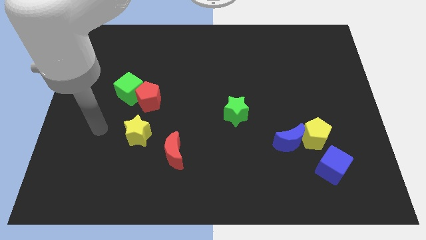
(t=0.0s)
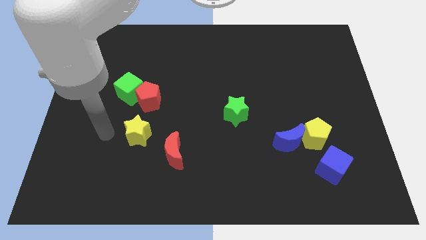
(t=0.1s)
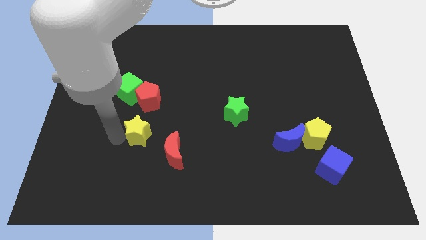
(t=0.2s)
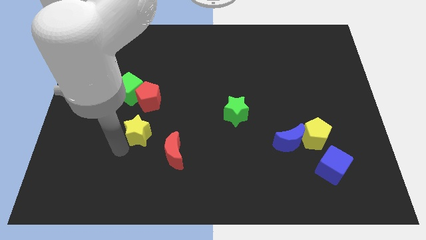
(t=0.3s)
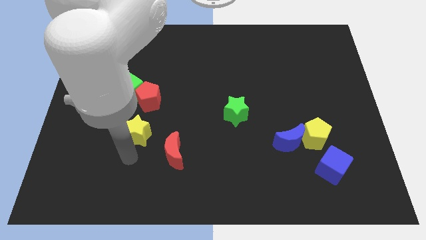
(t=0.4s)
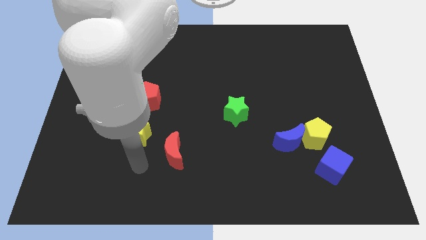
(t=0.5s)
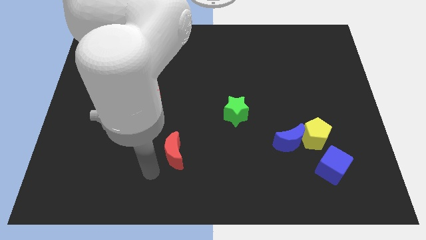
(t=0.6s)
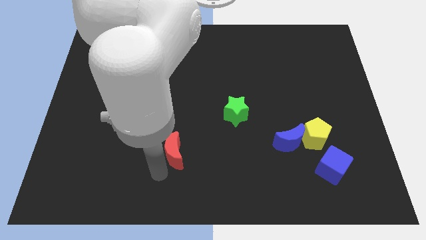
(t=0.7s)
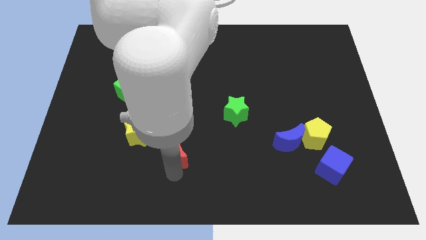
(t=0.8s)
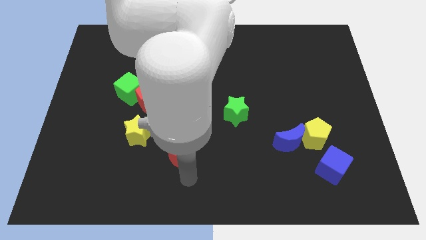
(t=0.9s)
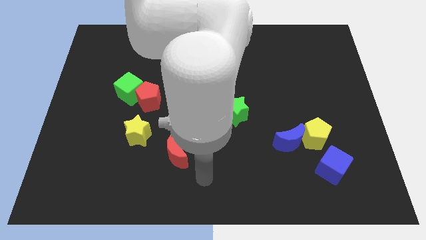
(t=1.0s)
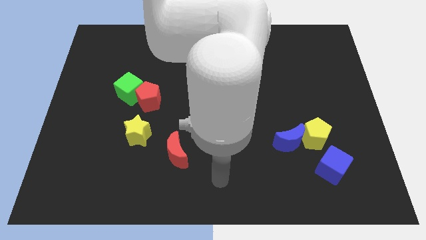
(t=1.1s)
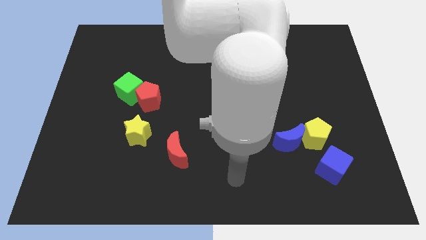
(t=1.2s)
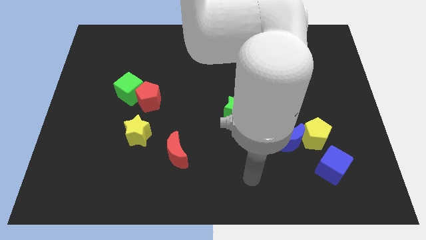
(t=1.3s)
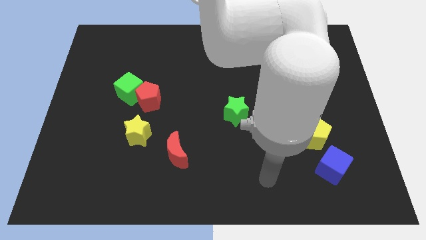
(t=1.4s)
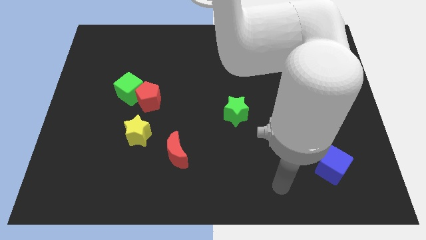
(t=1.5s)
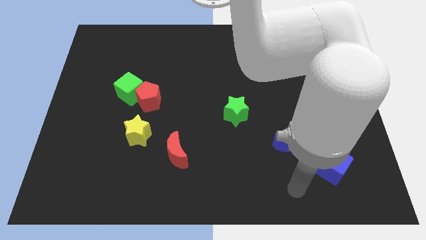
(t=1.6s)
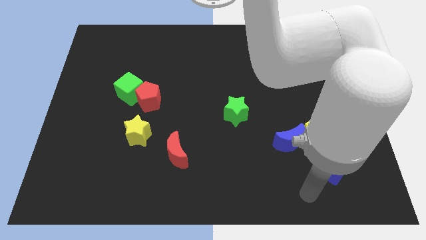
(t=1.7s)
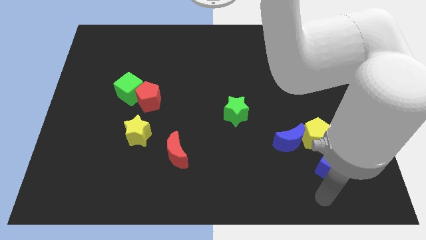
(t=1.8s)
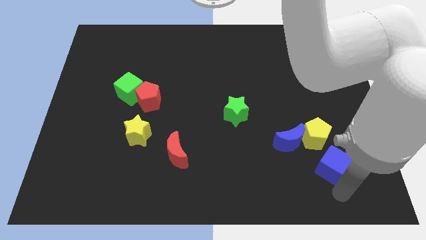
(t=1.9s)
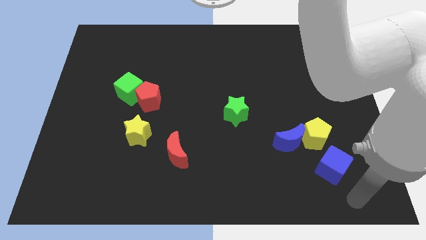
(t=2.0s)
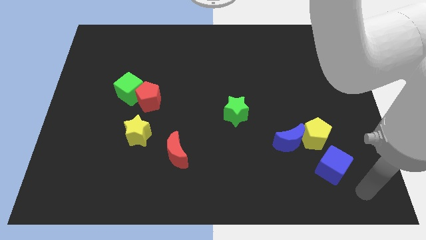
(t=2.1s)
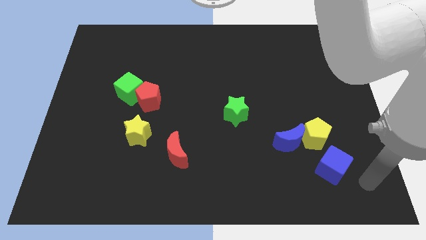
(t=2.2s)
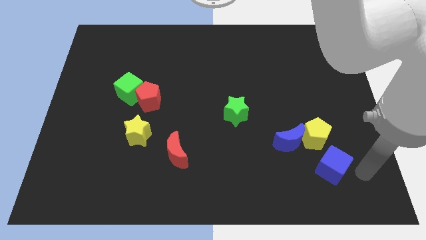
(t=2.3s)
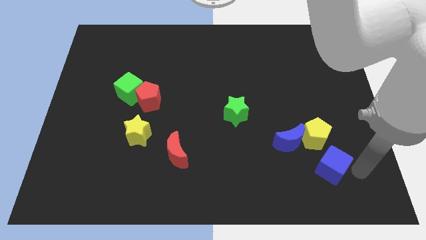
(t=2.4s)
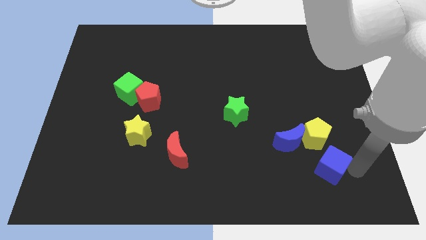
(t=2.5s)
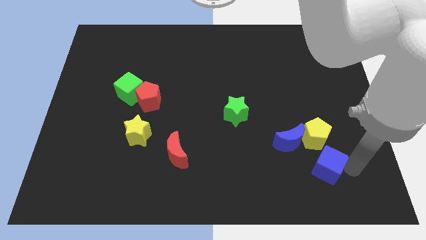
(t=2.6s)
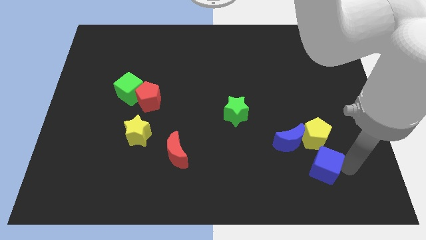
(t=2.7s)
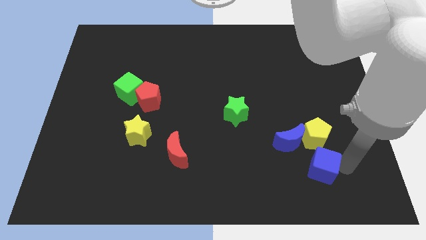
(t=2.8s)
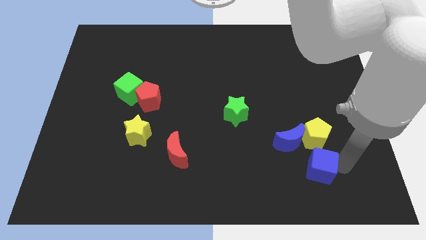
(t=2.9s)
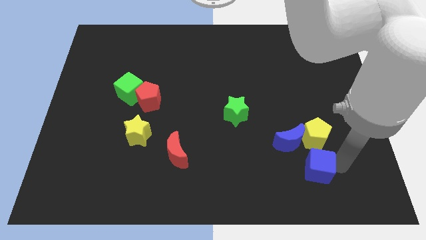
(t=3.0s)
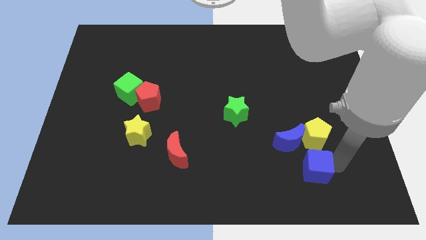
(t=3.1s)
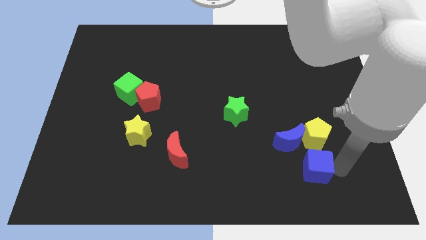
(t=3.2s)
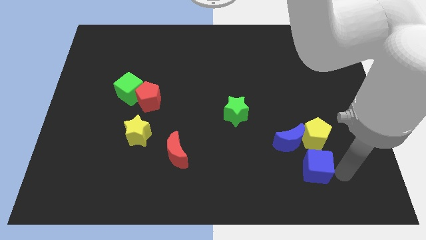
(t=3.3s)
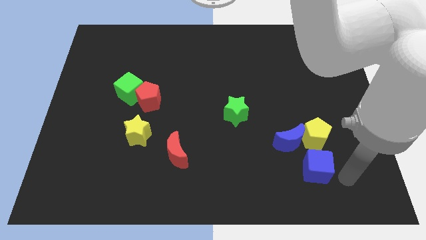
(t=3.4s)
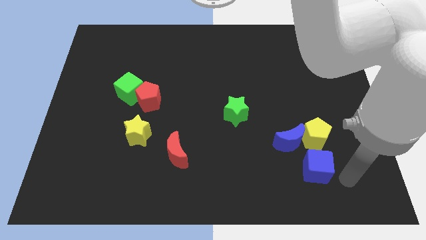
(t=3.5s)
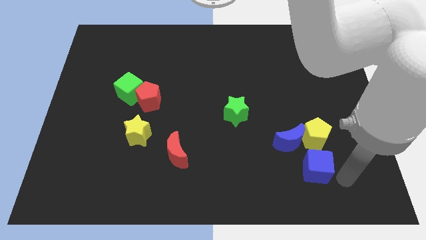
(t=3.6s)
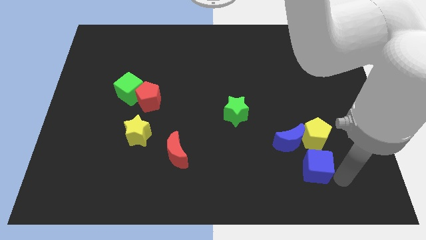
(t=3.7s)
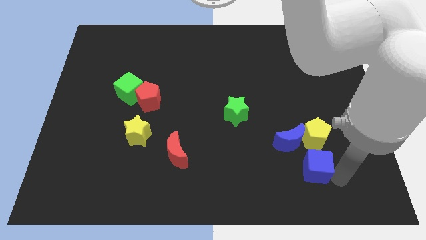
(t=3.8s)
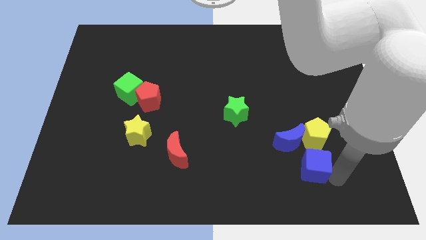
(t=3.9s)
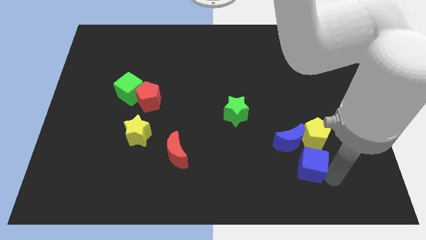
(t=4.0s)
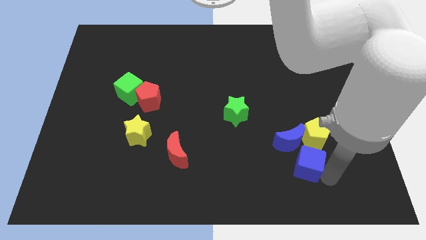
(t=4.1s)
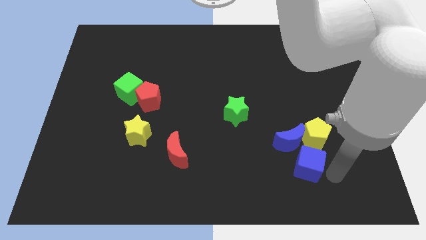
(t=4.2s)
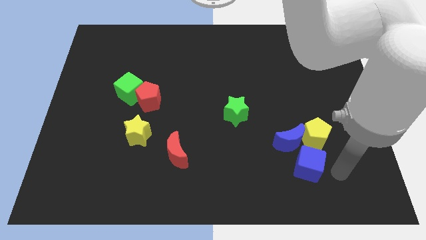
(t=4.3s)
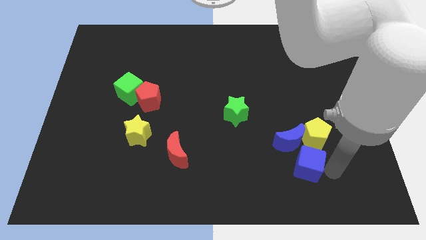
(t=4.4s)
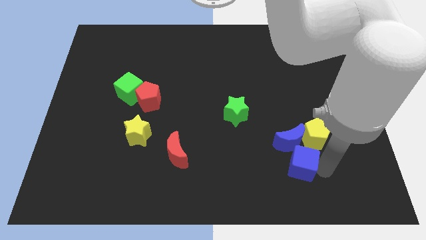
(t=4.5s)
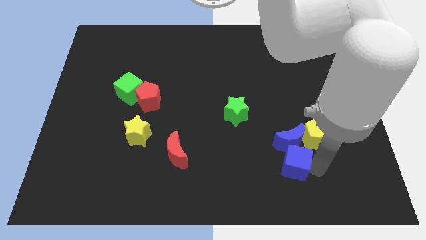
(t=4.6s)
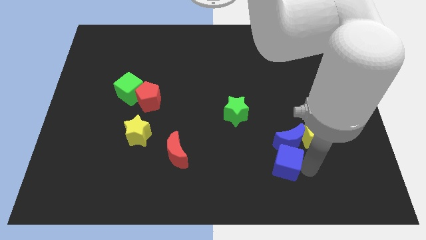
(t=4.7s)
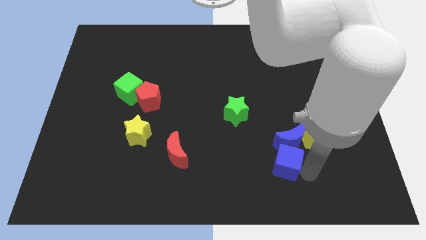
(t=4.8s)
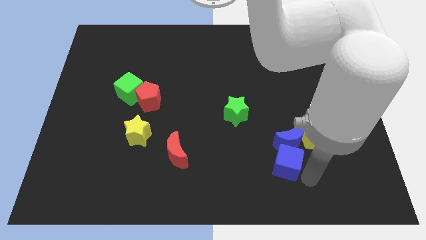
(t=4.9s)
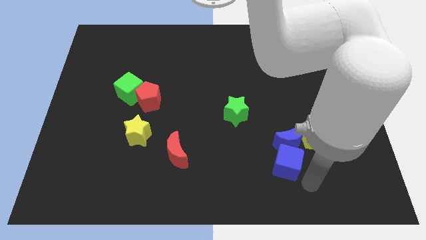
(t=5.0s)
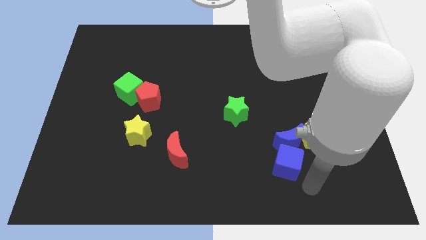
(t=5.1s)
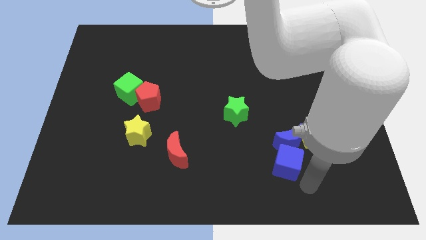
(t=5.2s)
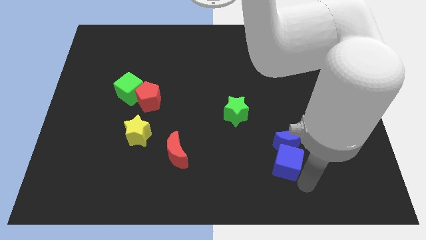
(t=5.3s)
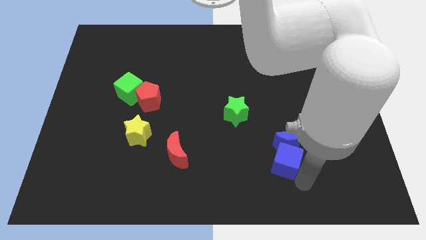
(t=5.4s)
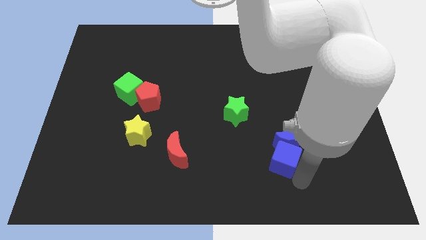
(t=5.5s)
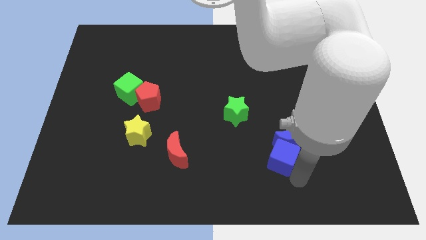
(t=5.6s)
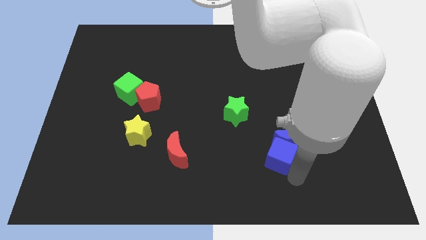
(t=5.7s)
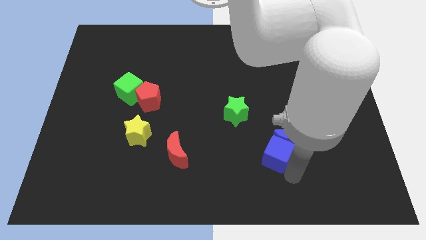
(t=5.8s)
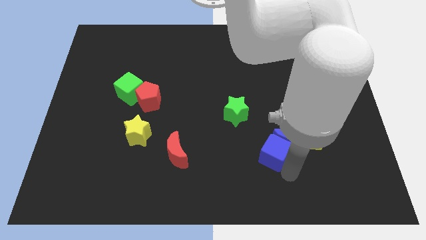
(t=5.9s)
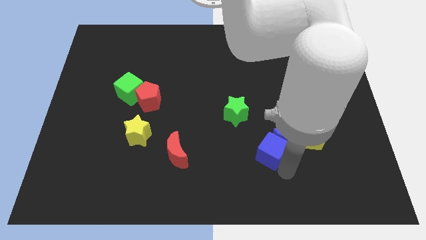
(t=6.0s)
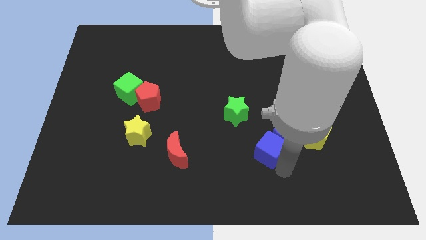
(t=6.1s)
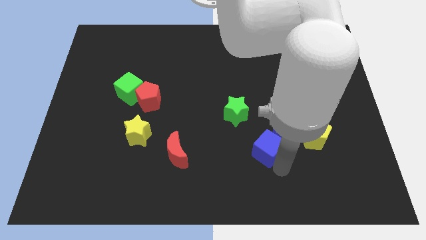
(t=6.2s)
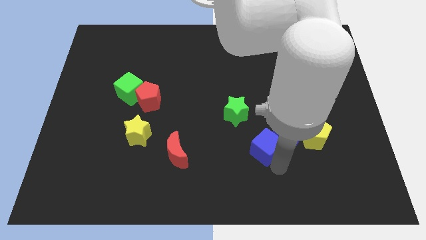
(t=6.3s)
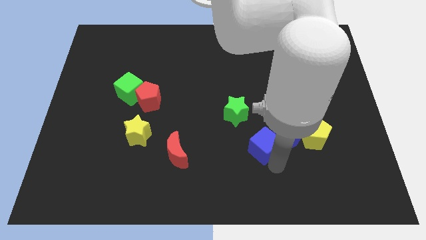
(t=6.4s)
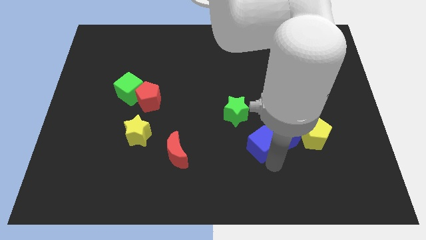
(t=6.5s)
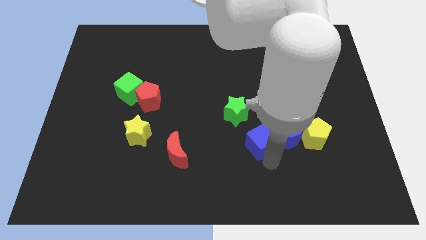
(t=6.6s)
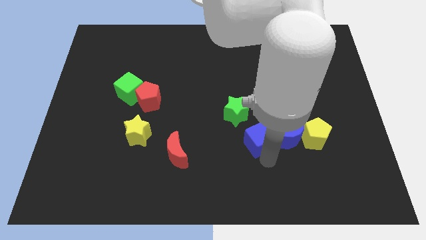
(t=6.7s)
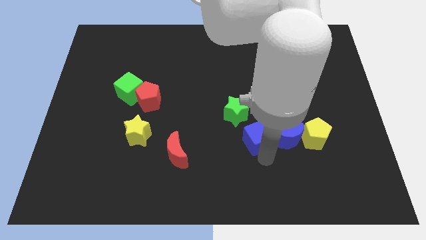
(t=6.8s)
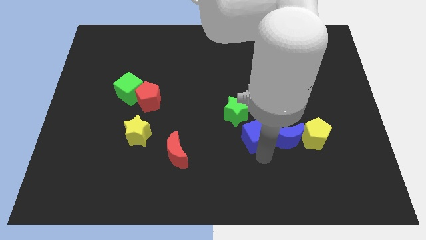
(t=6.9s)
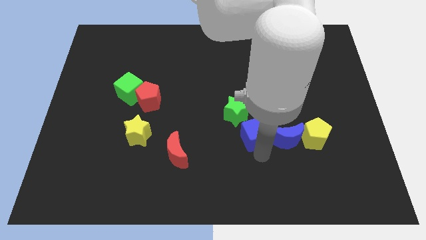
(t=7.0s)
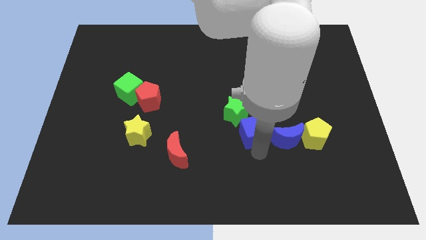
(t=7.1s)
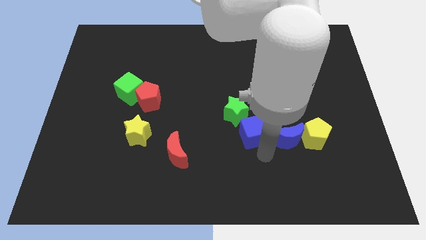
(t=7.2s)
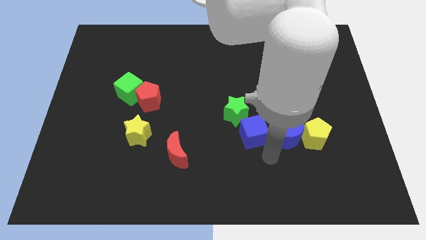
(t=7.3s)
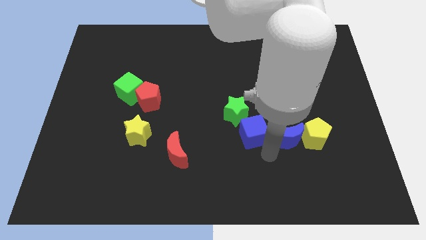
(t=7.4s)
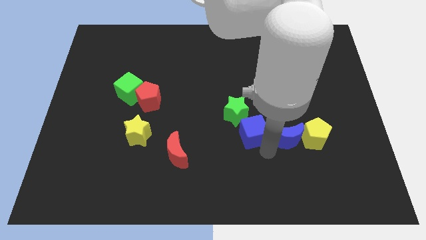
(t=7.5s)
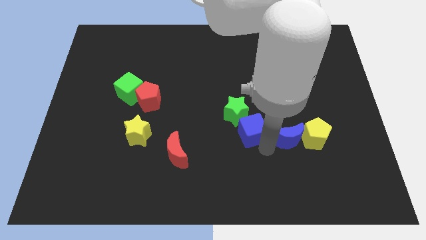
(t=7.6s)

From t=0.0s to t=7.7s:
push the blue cube to the green star
